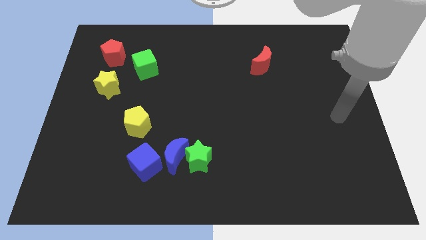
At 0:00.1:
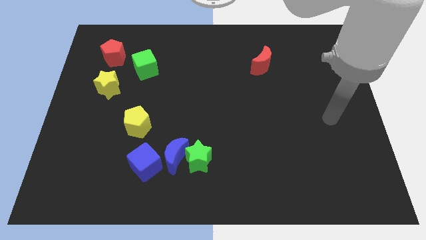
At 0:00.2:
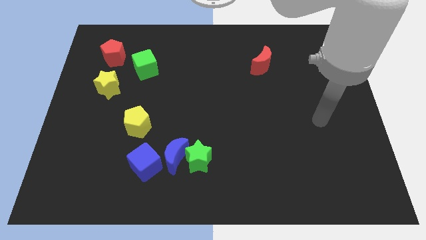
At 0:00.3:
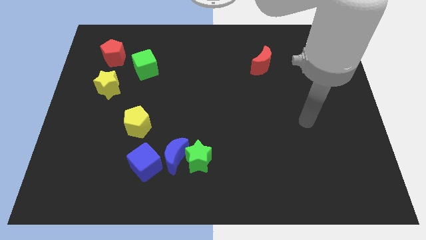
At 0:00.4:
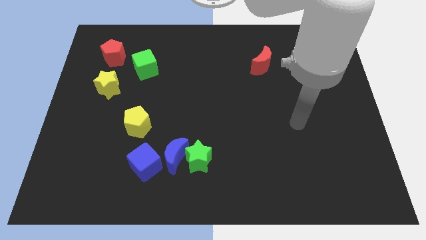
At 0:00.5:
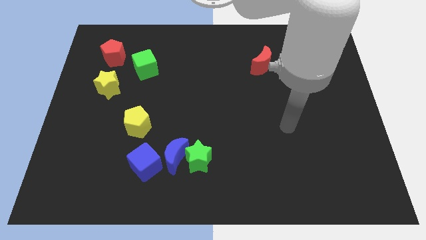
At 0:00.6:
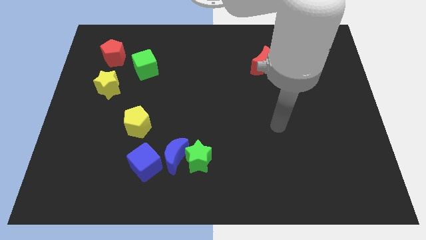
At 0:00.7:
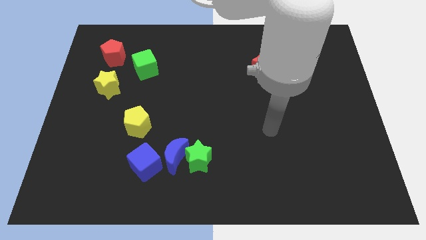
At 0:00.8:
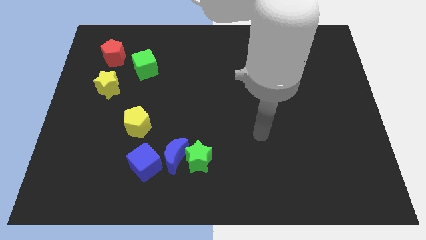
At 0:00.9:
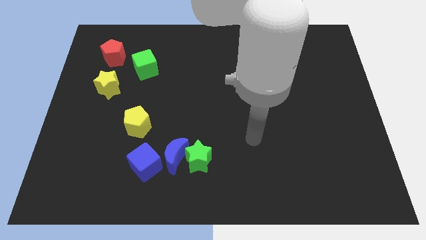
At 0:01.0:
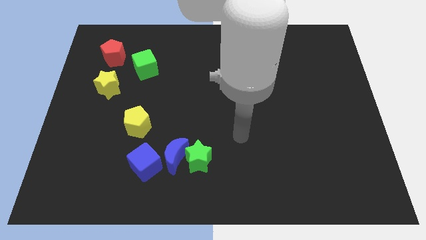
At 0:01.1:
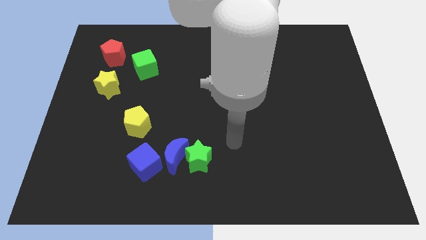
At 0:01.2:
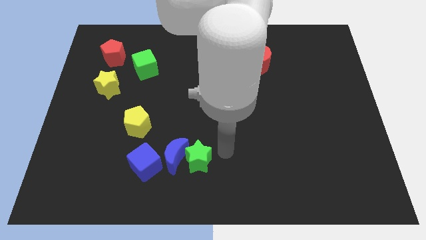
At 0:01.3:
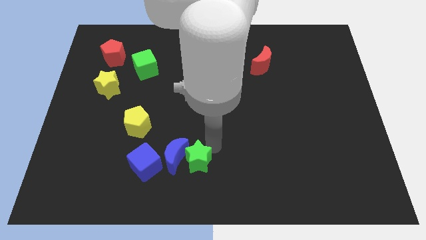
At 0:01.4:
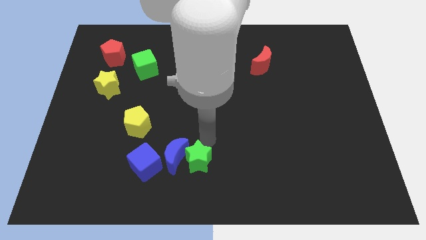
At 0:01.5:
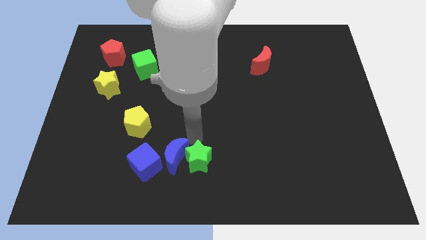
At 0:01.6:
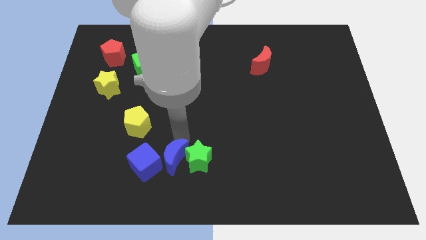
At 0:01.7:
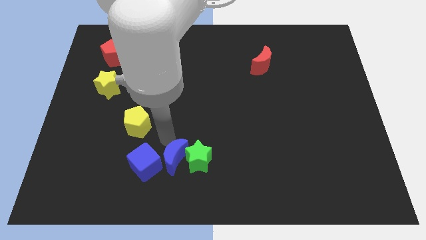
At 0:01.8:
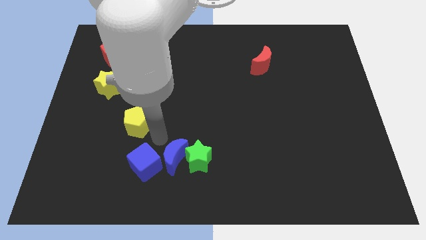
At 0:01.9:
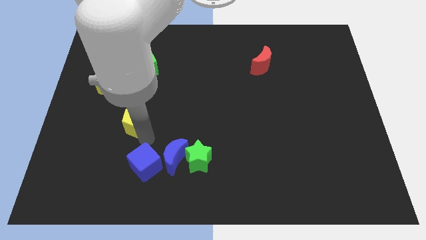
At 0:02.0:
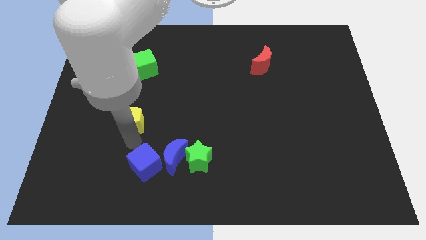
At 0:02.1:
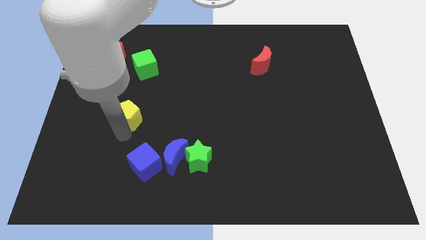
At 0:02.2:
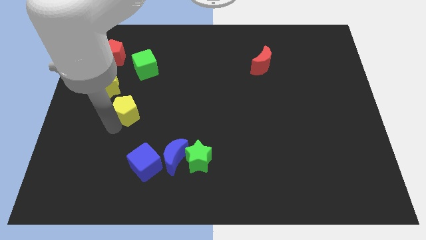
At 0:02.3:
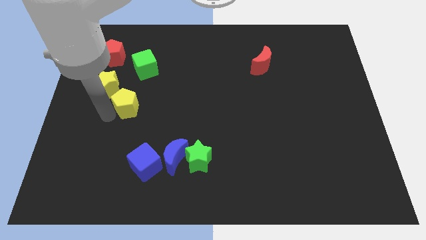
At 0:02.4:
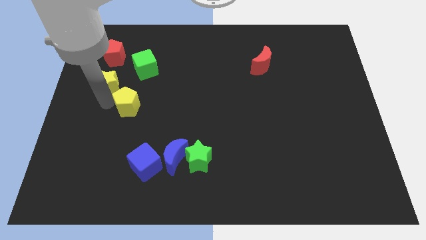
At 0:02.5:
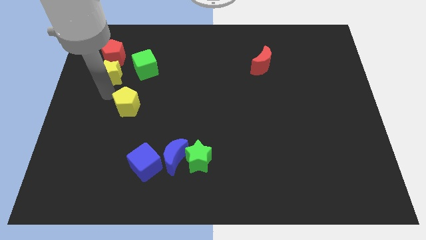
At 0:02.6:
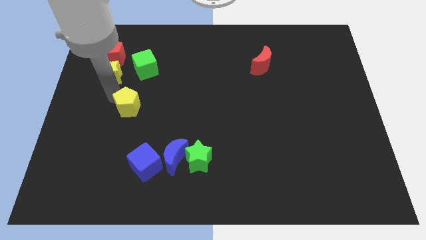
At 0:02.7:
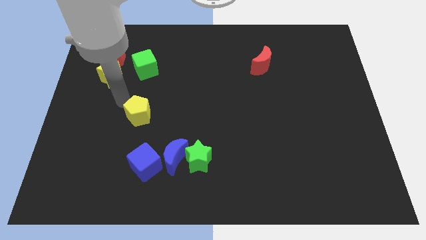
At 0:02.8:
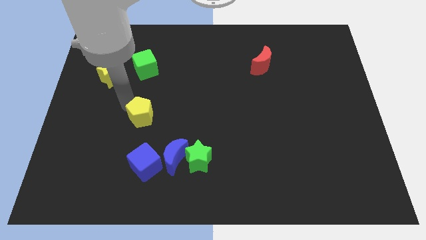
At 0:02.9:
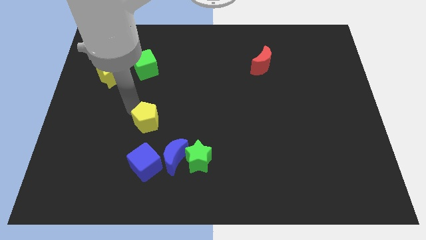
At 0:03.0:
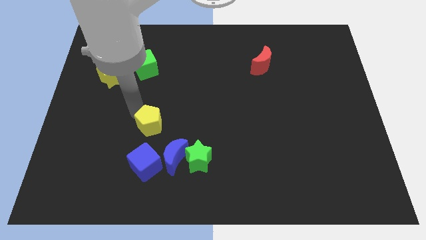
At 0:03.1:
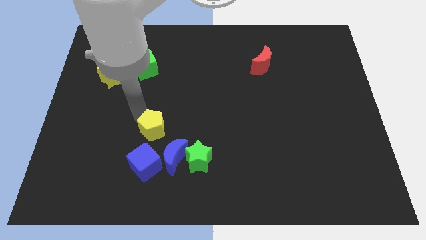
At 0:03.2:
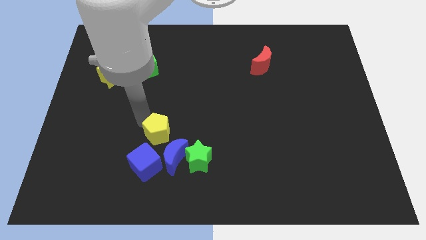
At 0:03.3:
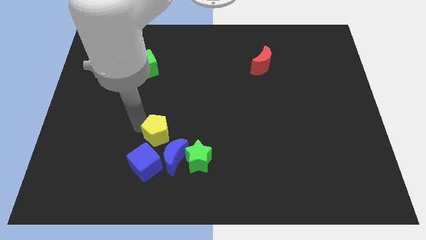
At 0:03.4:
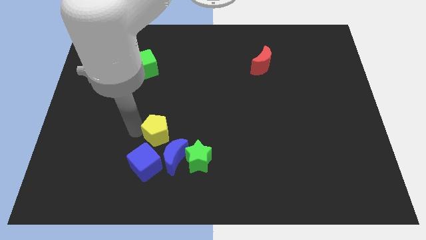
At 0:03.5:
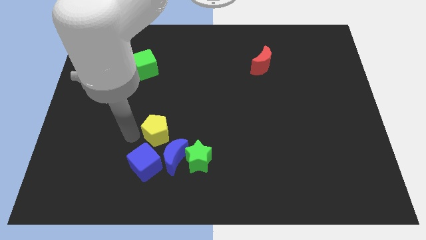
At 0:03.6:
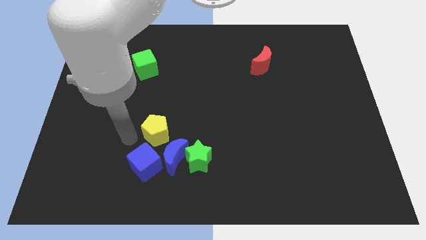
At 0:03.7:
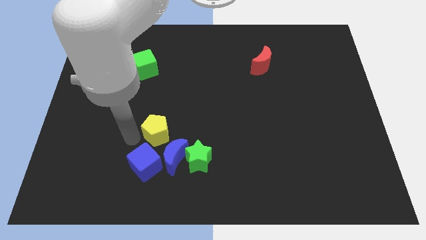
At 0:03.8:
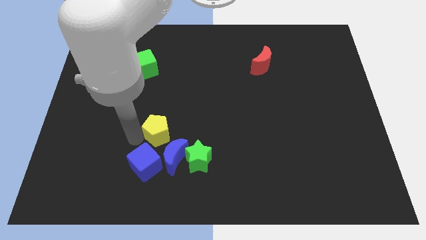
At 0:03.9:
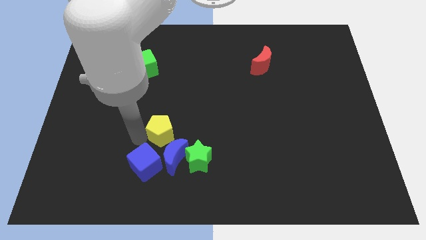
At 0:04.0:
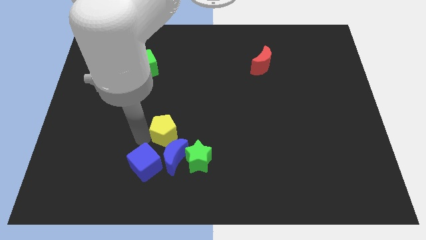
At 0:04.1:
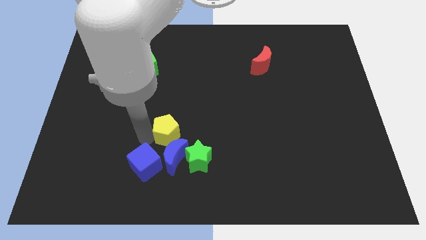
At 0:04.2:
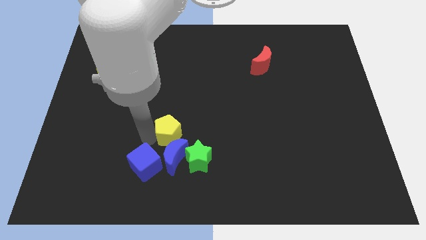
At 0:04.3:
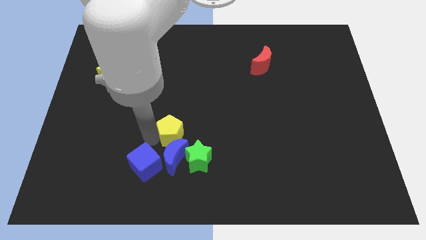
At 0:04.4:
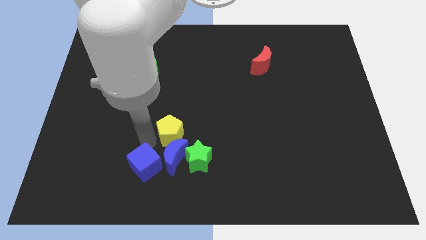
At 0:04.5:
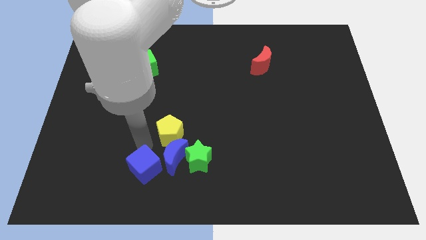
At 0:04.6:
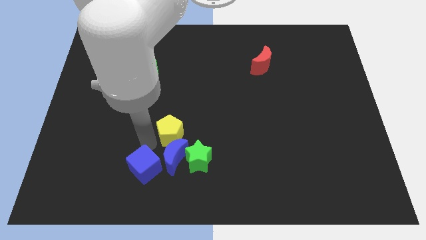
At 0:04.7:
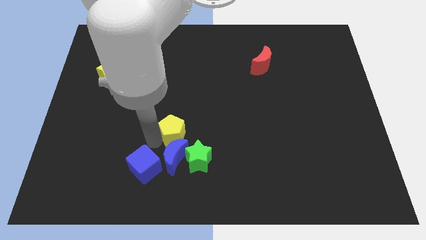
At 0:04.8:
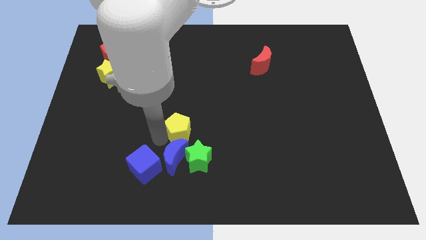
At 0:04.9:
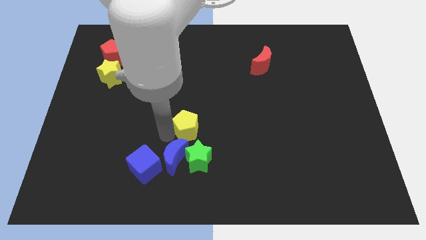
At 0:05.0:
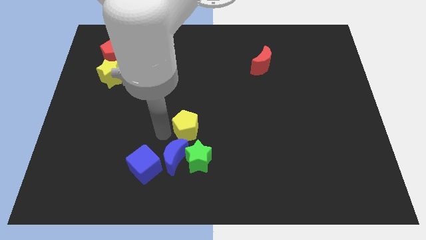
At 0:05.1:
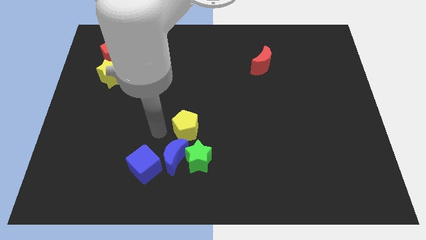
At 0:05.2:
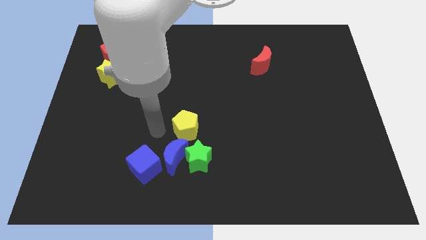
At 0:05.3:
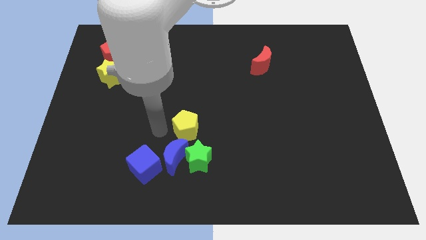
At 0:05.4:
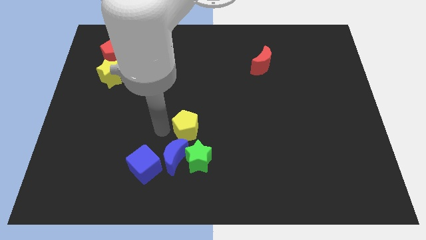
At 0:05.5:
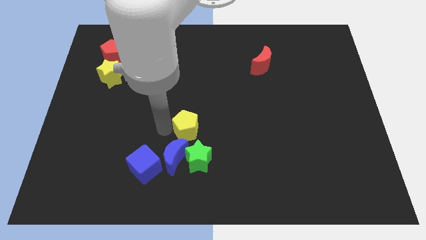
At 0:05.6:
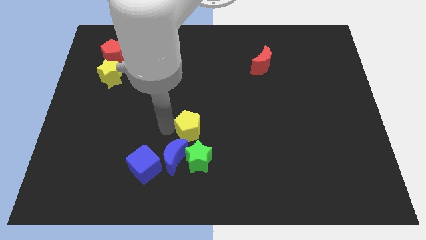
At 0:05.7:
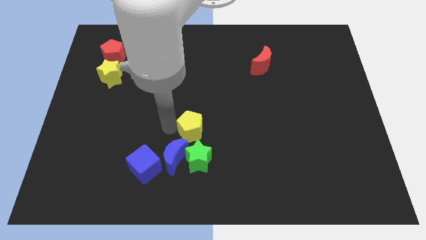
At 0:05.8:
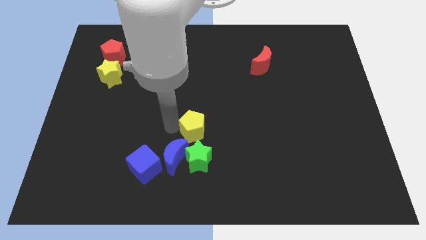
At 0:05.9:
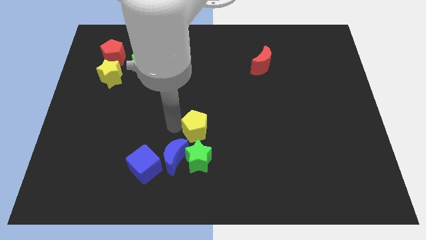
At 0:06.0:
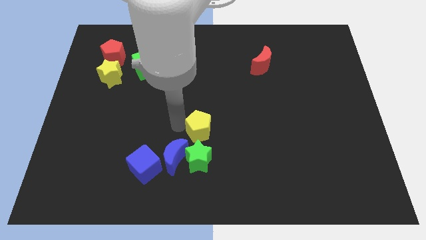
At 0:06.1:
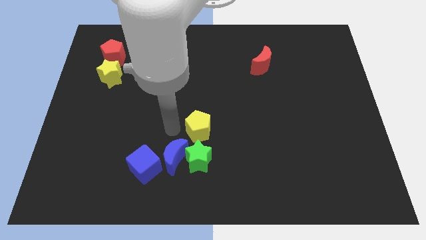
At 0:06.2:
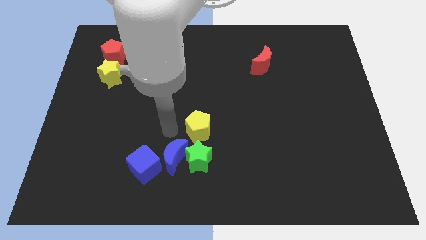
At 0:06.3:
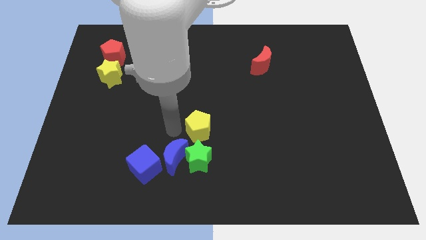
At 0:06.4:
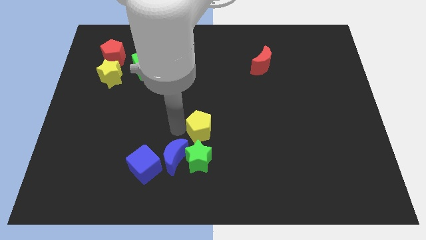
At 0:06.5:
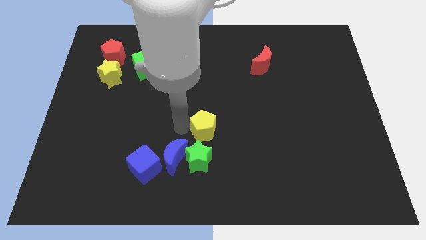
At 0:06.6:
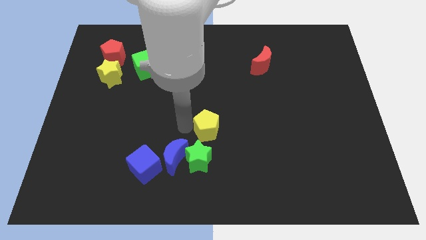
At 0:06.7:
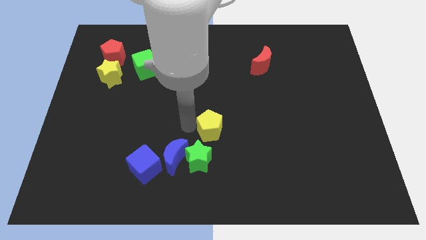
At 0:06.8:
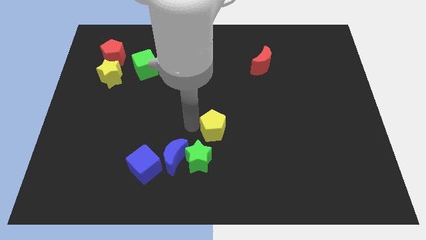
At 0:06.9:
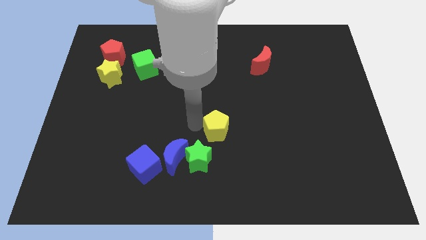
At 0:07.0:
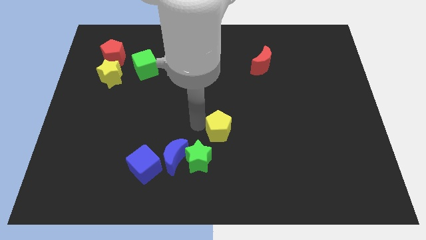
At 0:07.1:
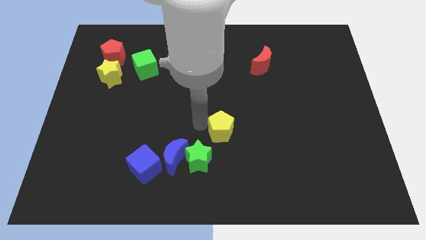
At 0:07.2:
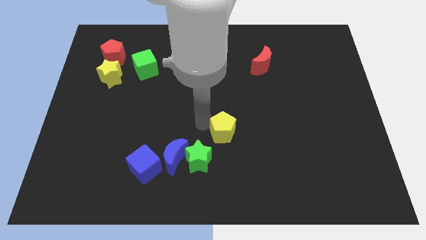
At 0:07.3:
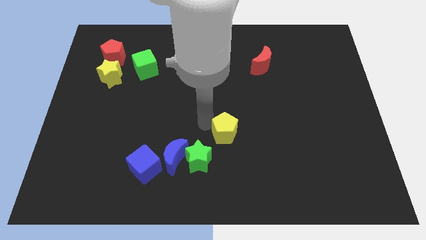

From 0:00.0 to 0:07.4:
move the yellow pentagon to the right

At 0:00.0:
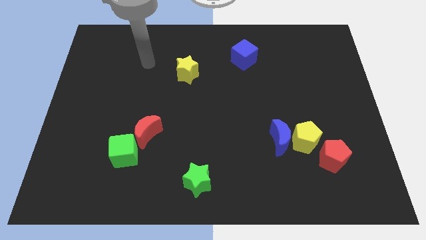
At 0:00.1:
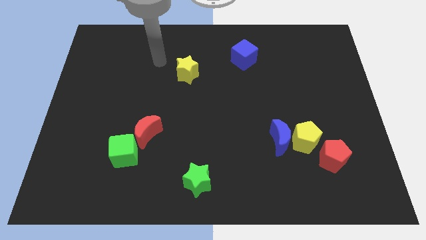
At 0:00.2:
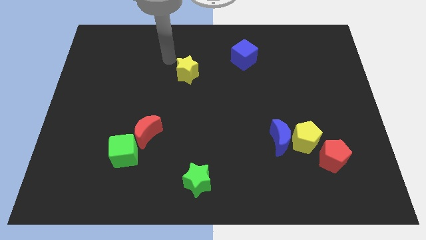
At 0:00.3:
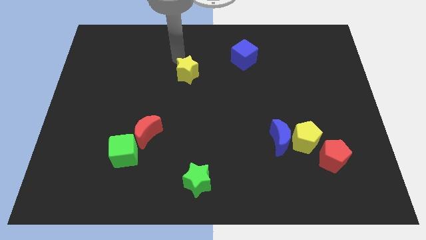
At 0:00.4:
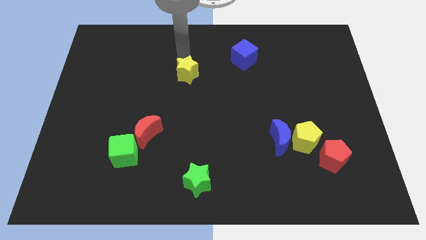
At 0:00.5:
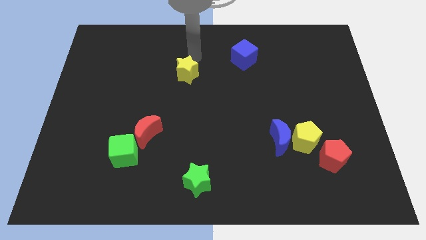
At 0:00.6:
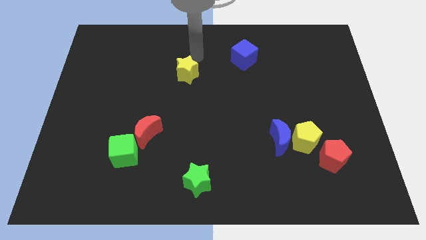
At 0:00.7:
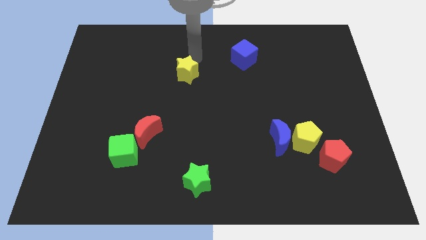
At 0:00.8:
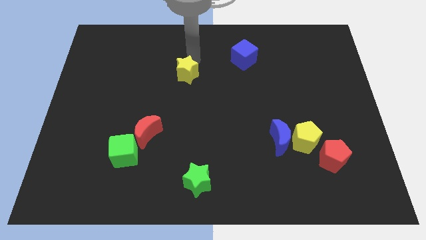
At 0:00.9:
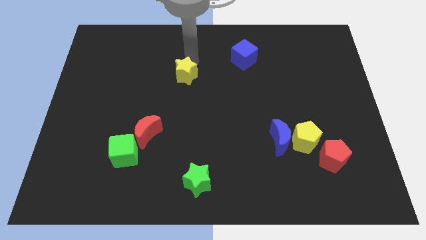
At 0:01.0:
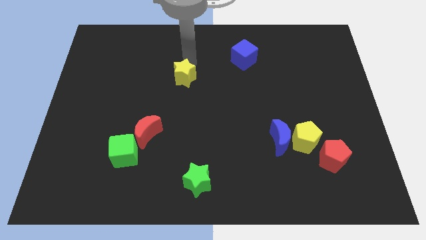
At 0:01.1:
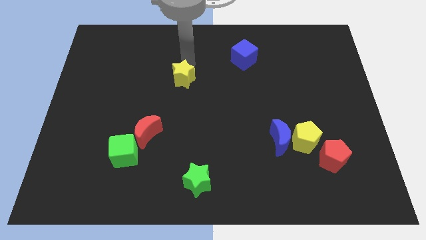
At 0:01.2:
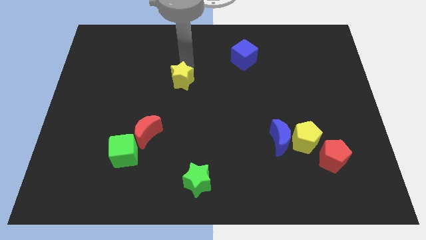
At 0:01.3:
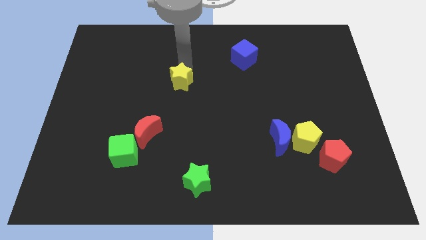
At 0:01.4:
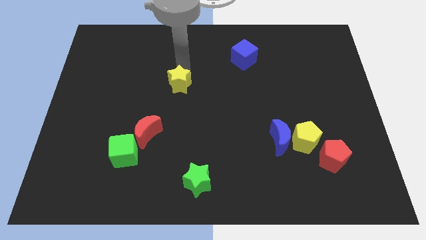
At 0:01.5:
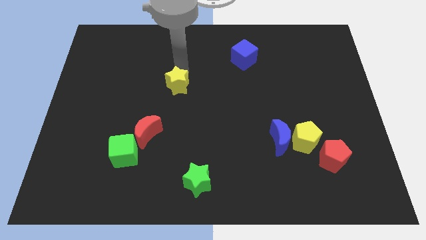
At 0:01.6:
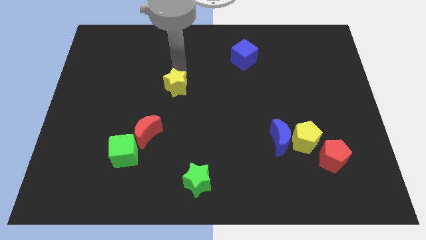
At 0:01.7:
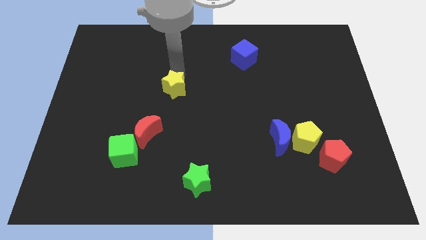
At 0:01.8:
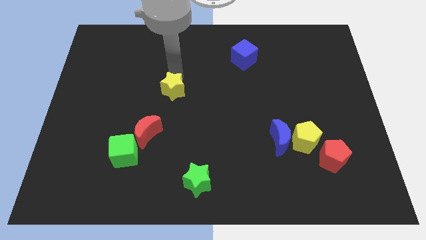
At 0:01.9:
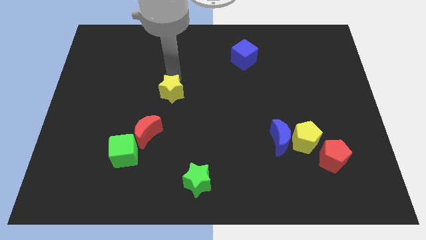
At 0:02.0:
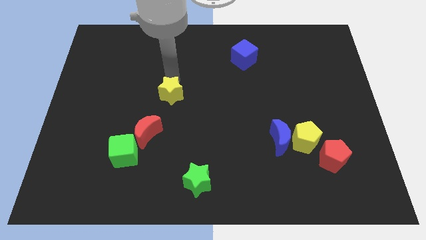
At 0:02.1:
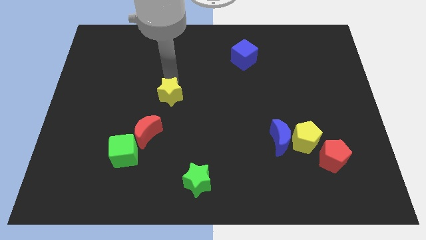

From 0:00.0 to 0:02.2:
slightly move the yellow star down
